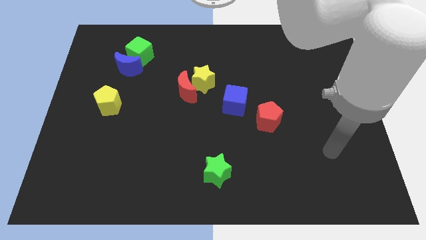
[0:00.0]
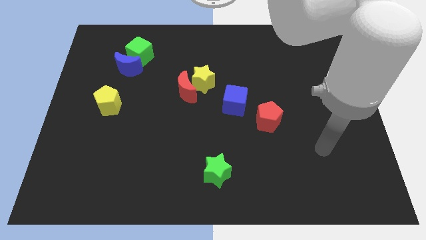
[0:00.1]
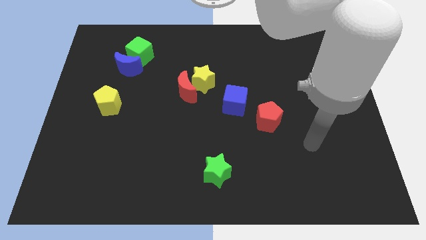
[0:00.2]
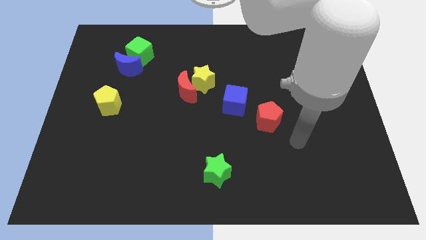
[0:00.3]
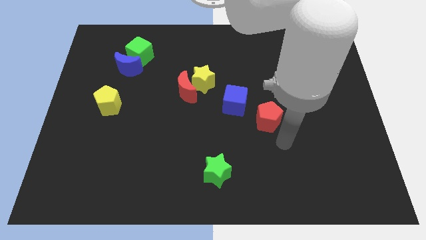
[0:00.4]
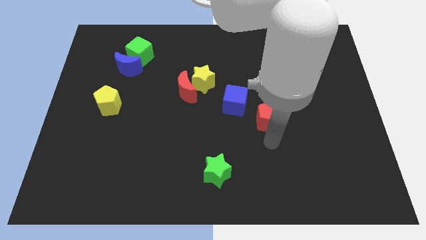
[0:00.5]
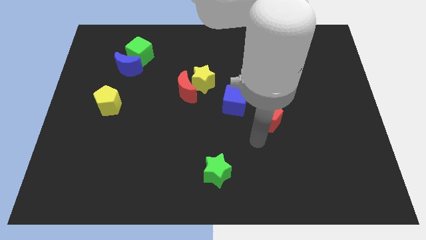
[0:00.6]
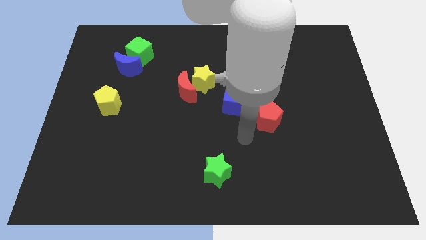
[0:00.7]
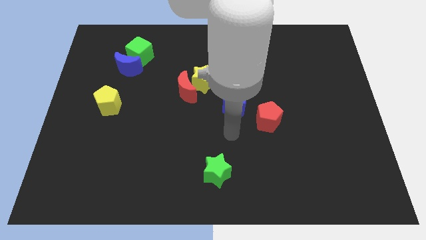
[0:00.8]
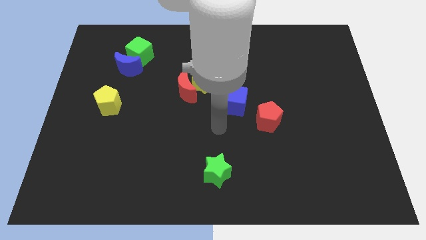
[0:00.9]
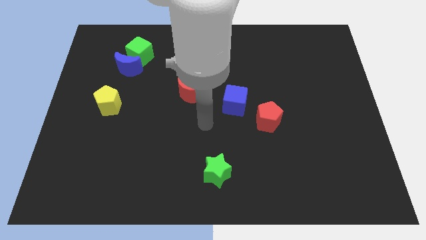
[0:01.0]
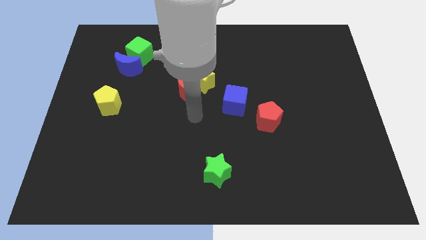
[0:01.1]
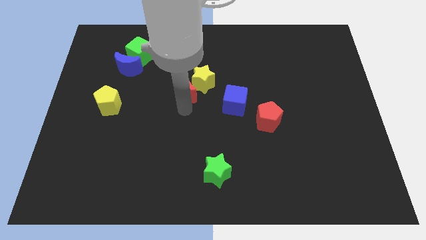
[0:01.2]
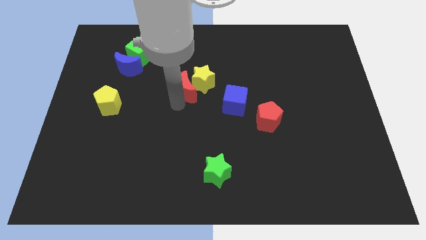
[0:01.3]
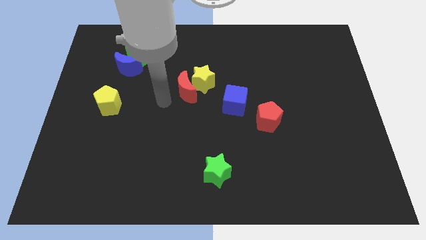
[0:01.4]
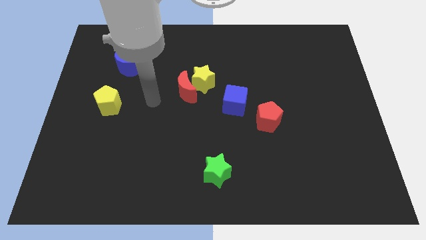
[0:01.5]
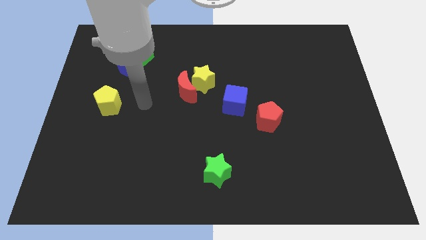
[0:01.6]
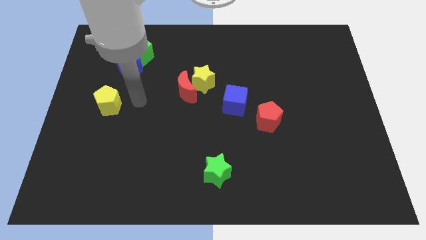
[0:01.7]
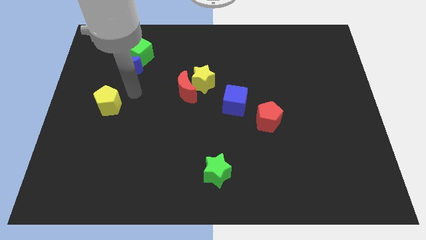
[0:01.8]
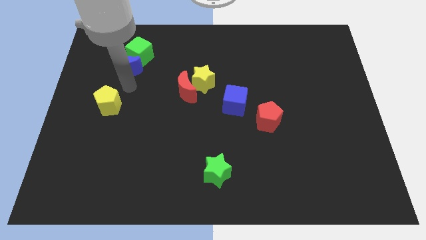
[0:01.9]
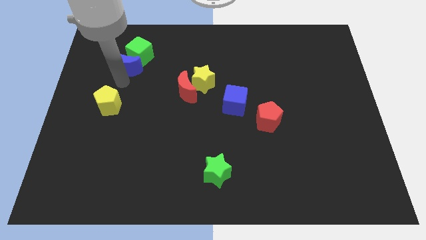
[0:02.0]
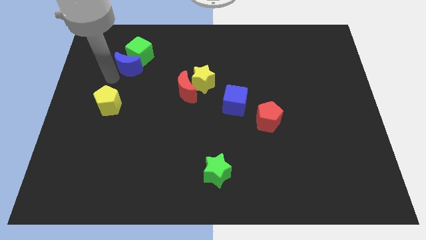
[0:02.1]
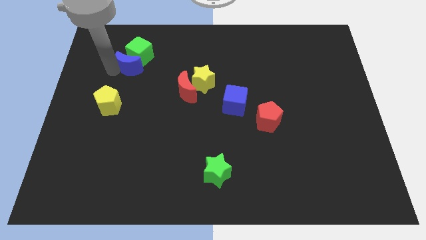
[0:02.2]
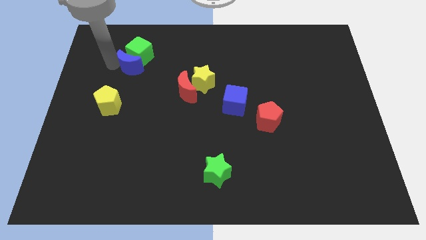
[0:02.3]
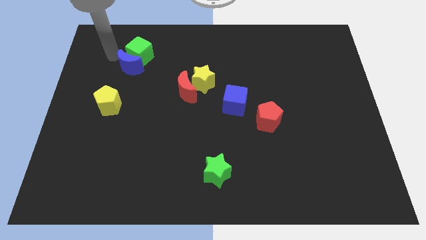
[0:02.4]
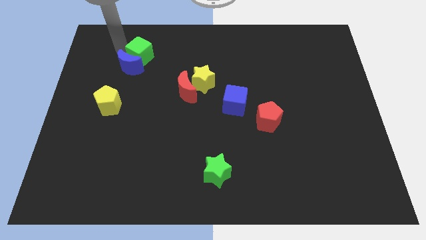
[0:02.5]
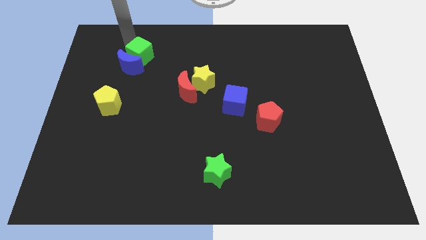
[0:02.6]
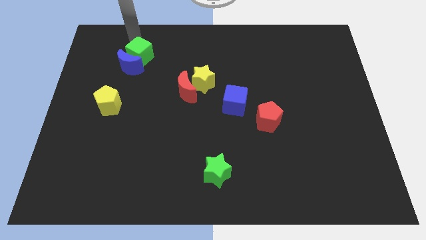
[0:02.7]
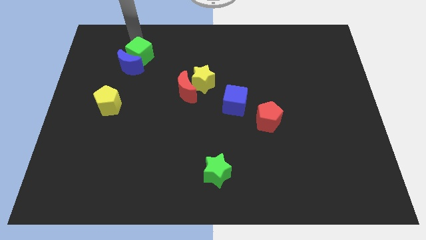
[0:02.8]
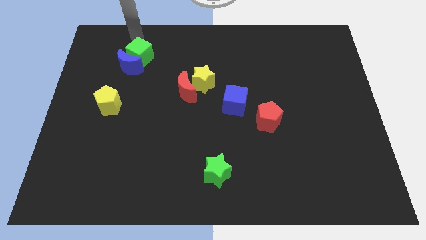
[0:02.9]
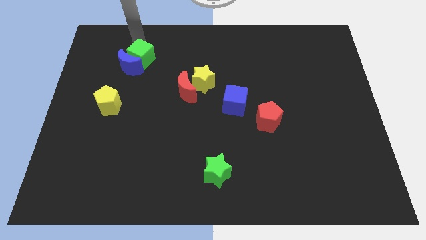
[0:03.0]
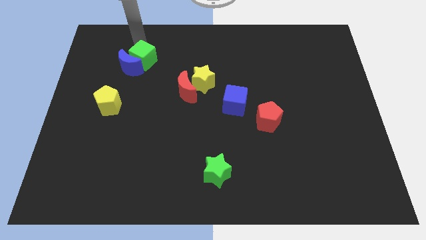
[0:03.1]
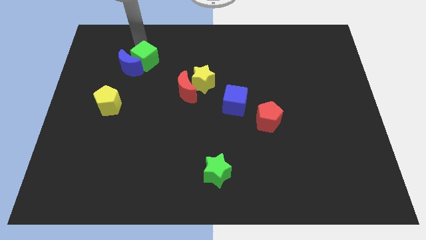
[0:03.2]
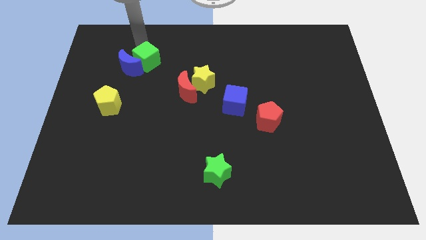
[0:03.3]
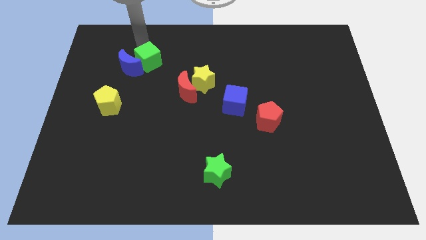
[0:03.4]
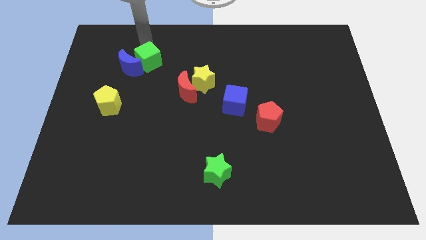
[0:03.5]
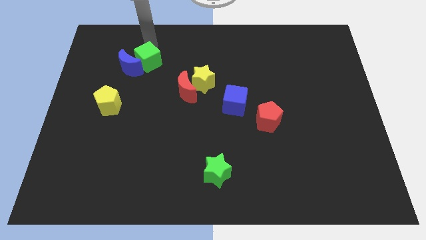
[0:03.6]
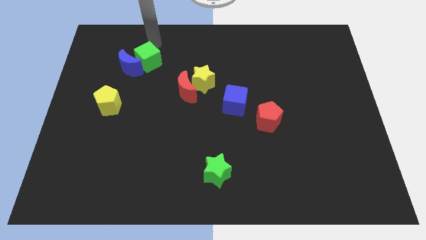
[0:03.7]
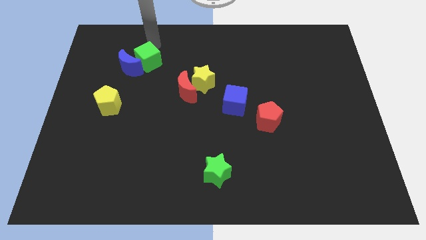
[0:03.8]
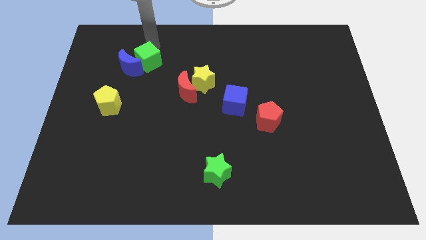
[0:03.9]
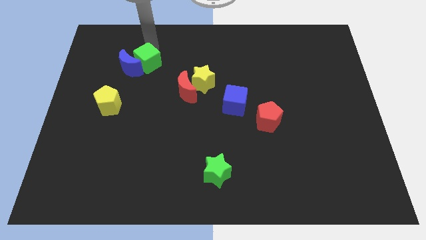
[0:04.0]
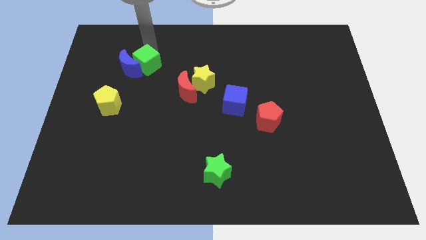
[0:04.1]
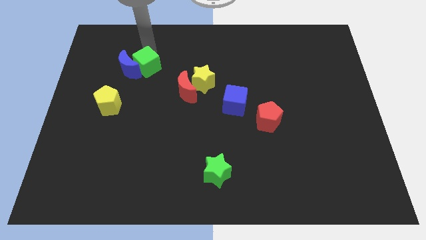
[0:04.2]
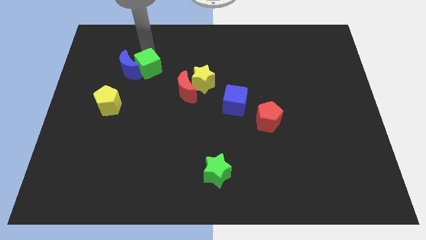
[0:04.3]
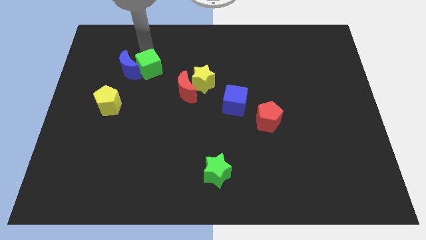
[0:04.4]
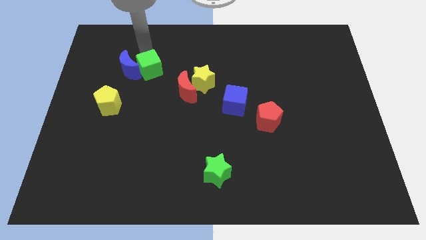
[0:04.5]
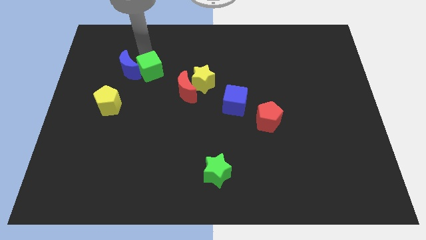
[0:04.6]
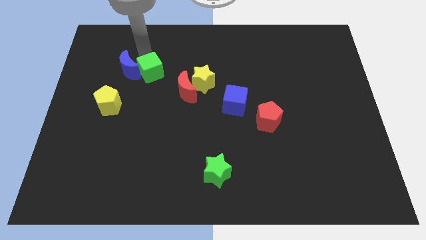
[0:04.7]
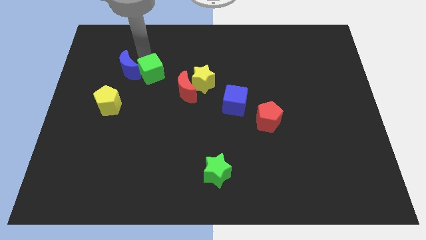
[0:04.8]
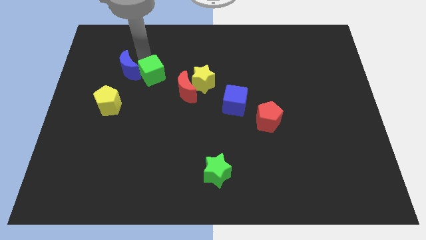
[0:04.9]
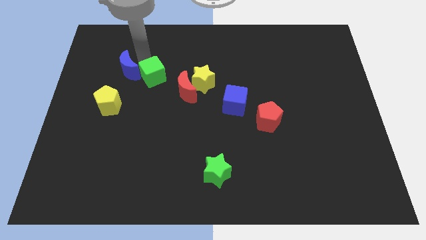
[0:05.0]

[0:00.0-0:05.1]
push the green cube a little bit downwards

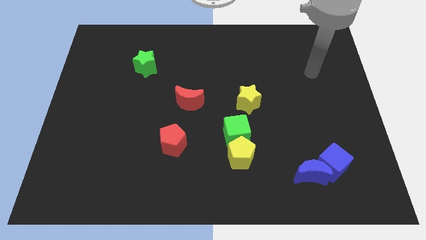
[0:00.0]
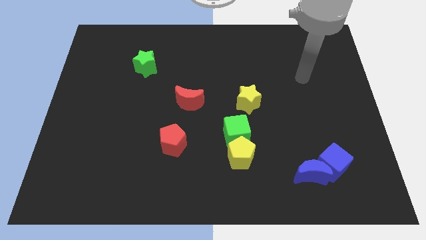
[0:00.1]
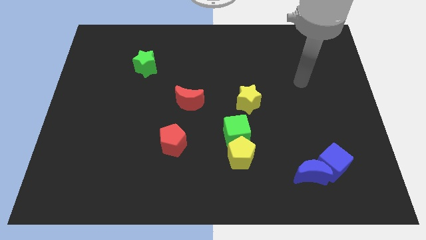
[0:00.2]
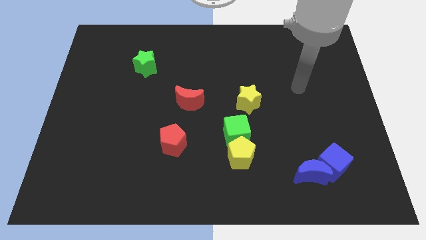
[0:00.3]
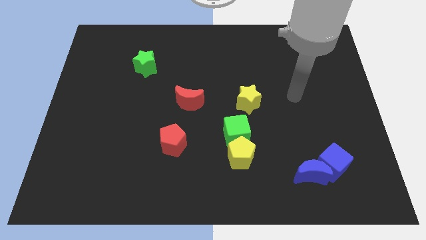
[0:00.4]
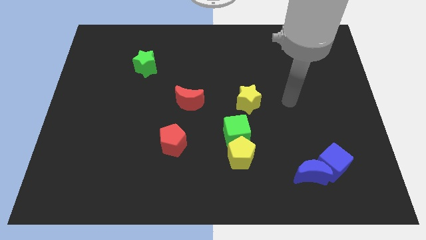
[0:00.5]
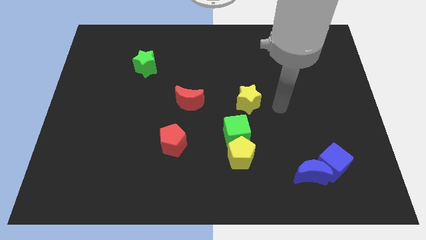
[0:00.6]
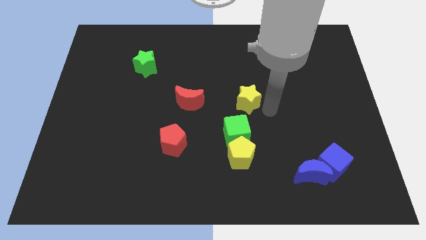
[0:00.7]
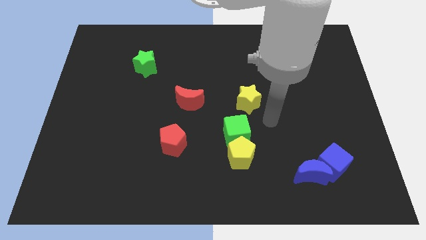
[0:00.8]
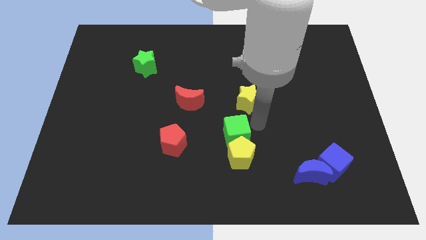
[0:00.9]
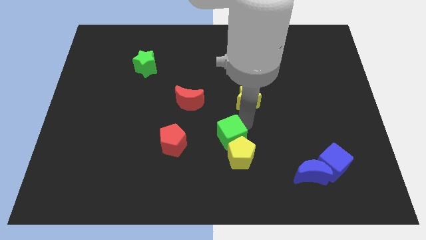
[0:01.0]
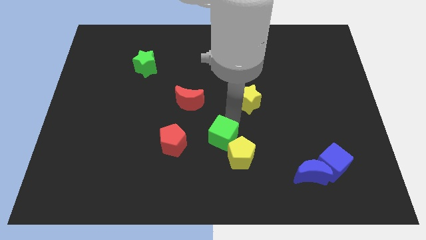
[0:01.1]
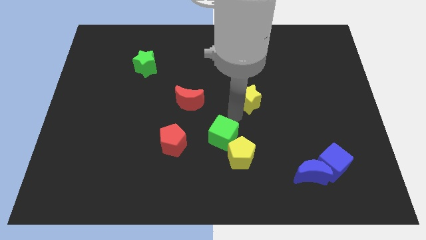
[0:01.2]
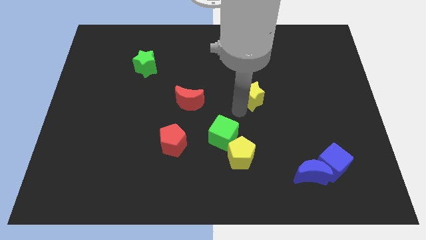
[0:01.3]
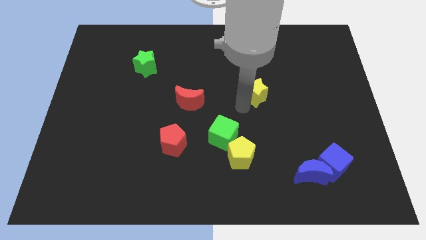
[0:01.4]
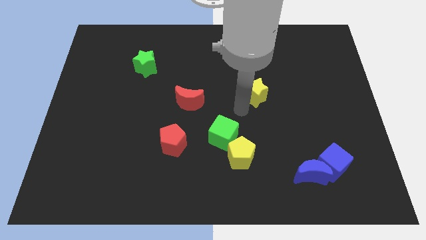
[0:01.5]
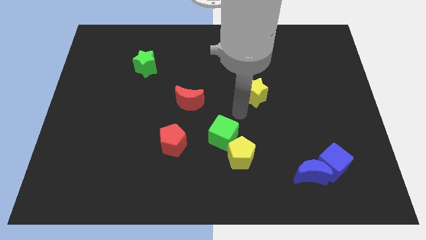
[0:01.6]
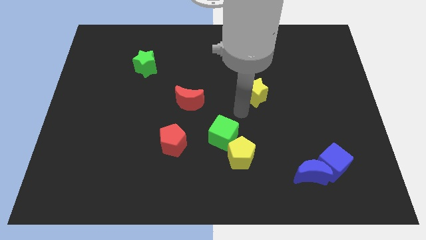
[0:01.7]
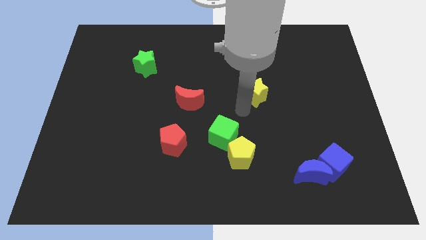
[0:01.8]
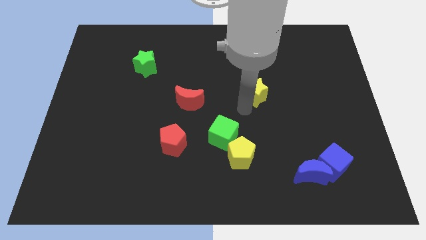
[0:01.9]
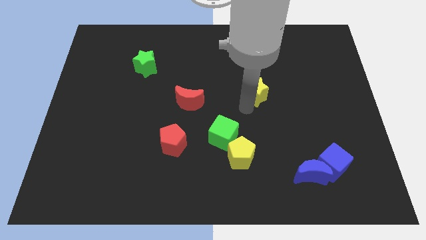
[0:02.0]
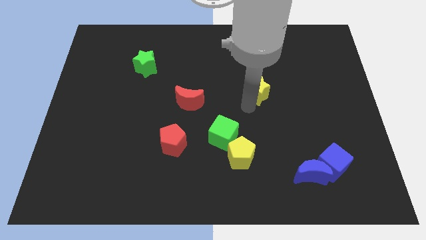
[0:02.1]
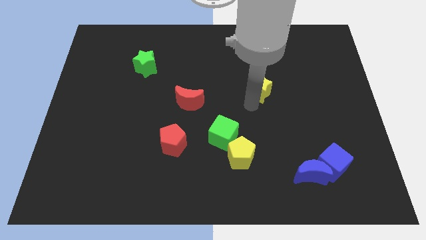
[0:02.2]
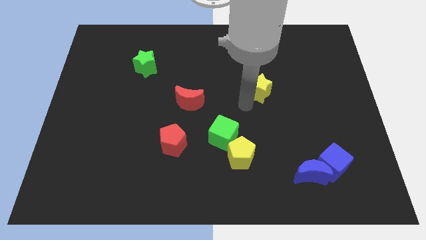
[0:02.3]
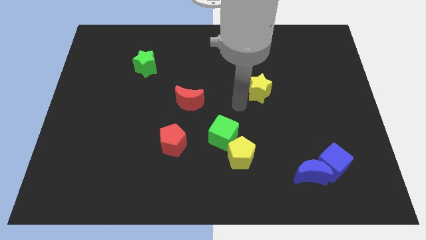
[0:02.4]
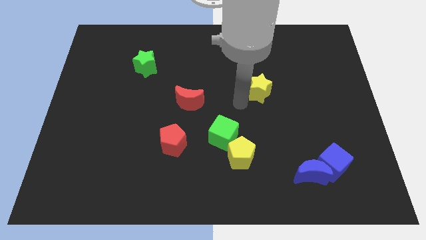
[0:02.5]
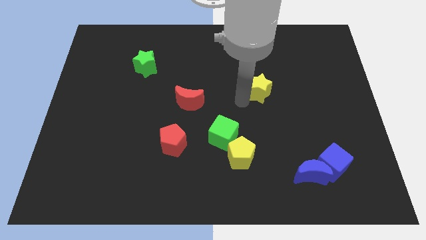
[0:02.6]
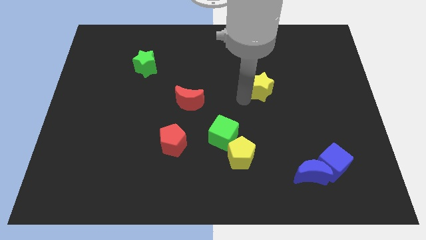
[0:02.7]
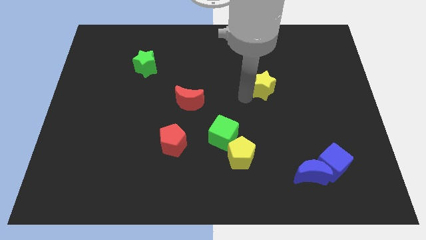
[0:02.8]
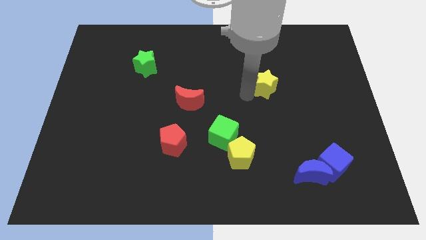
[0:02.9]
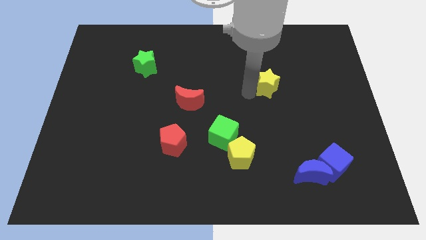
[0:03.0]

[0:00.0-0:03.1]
push the yellow star up and to the right diagonally a little
